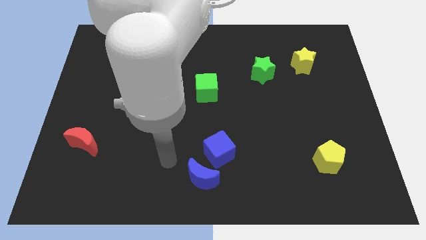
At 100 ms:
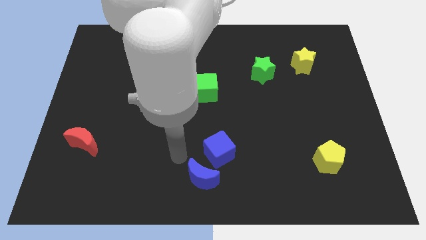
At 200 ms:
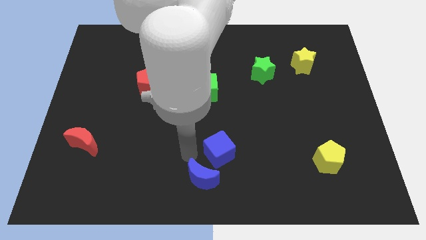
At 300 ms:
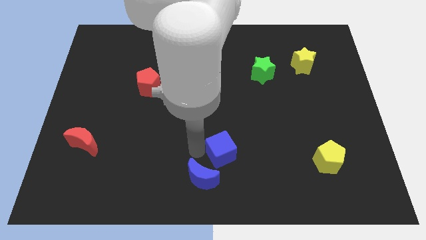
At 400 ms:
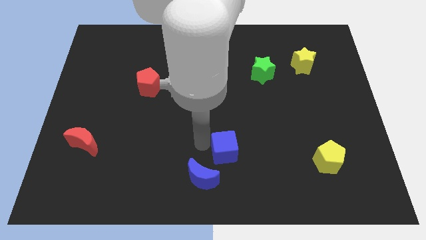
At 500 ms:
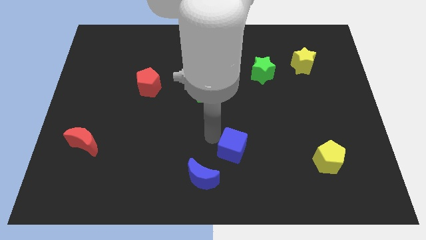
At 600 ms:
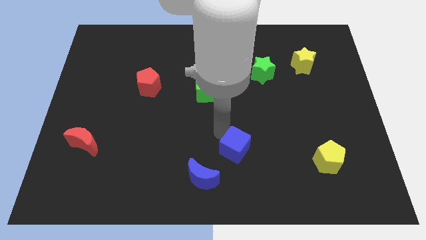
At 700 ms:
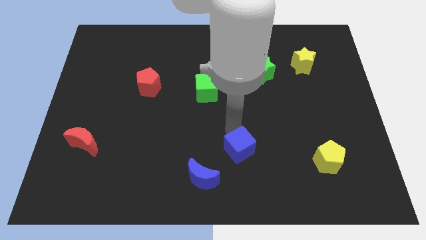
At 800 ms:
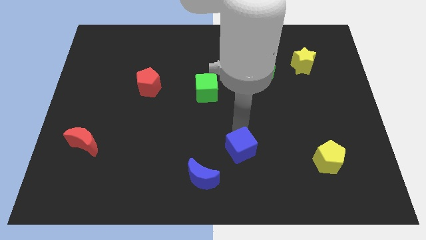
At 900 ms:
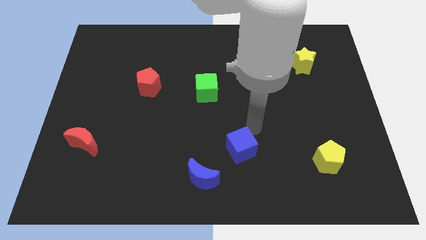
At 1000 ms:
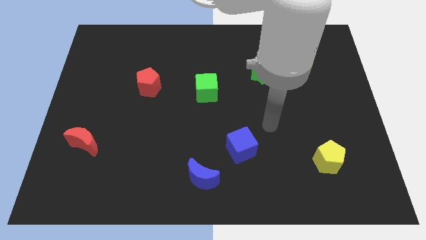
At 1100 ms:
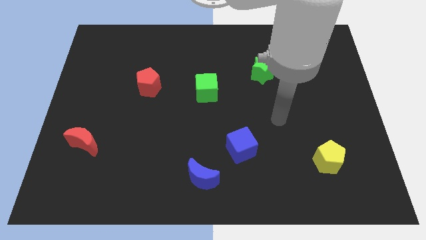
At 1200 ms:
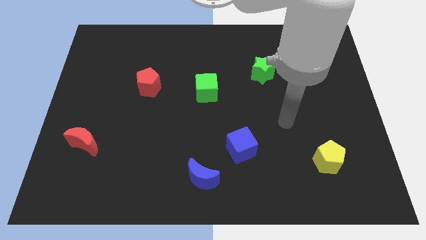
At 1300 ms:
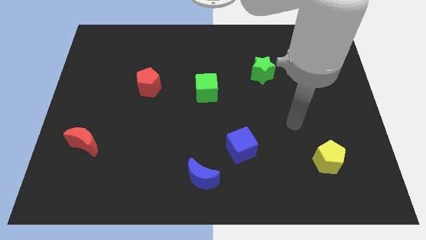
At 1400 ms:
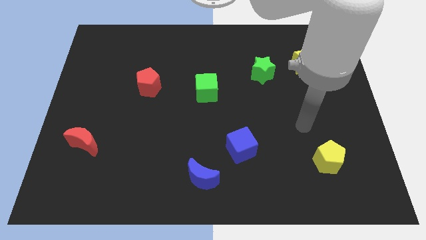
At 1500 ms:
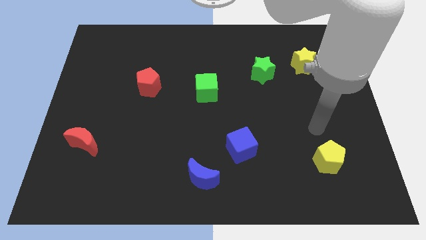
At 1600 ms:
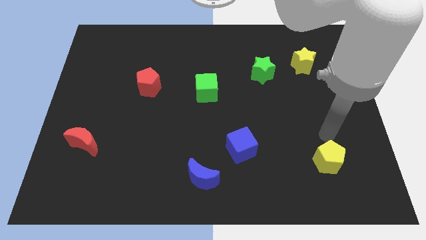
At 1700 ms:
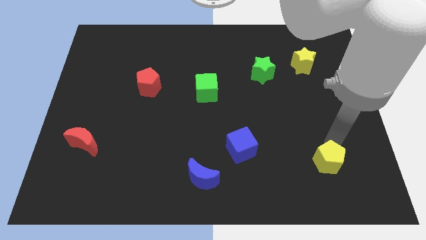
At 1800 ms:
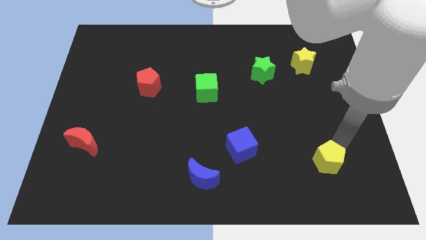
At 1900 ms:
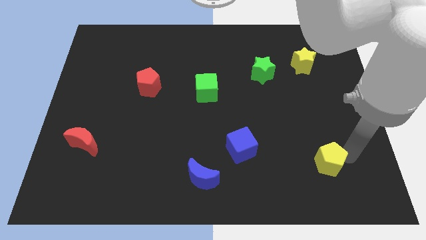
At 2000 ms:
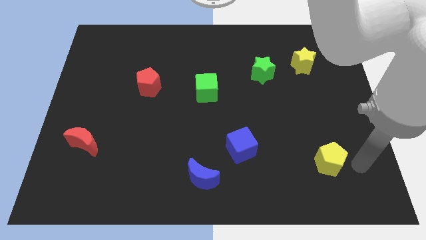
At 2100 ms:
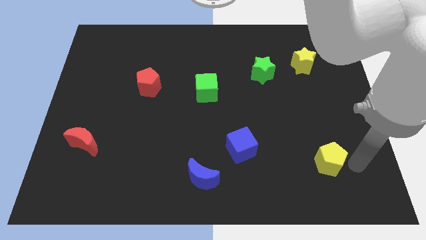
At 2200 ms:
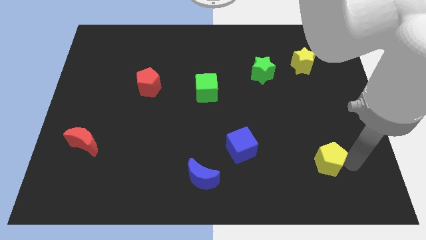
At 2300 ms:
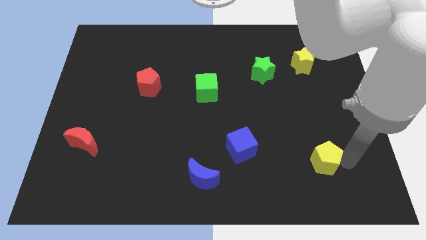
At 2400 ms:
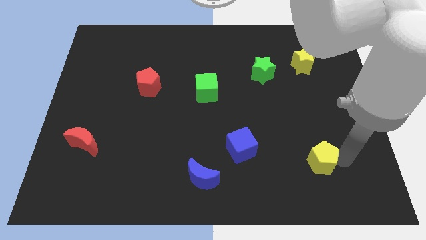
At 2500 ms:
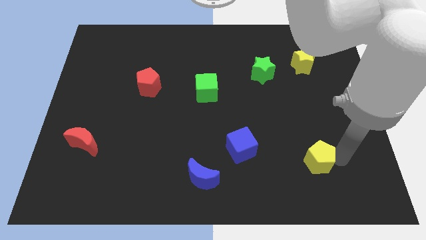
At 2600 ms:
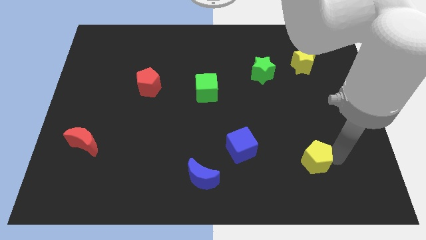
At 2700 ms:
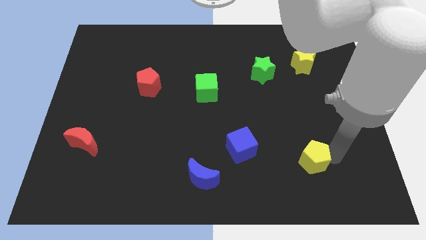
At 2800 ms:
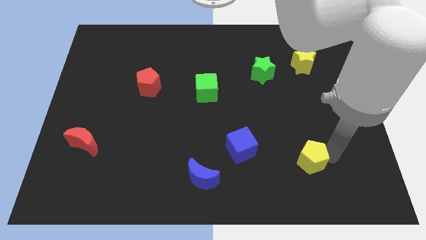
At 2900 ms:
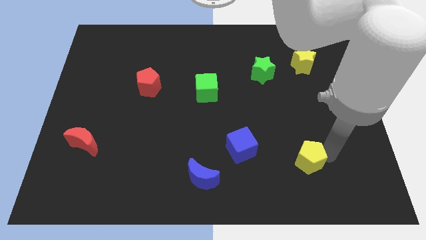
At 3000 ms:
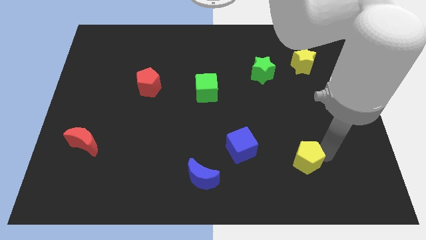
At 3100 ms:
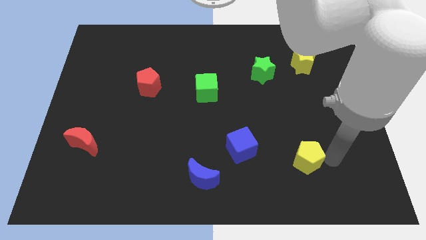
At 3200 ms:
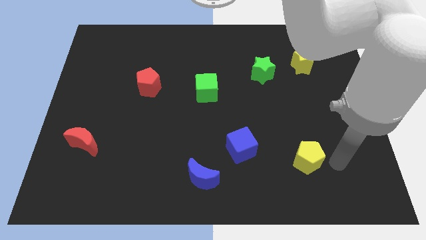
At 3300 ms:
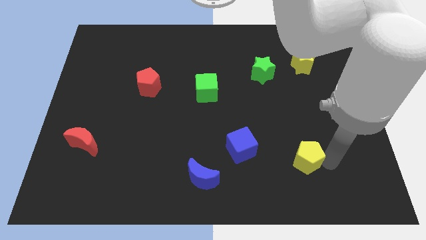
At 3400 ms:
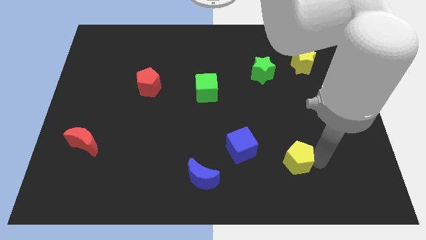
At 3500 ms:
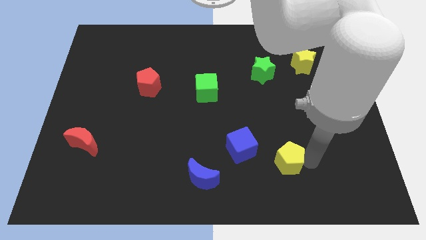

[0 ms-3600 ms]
slightly slide the yellow pentagon left

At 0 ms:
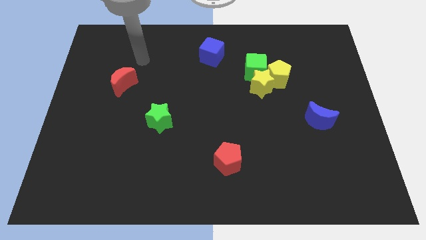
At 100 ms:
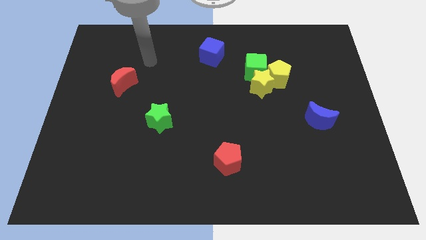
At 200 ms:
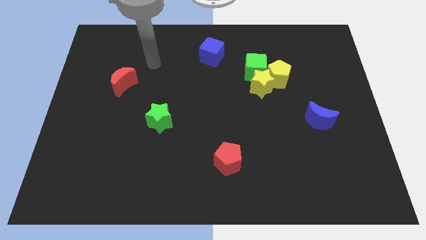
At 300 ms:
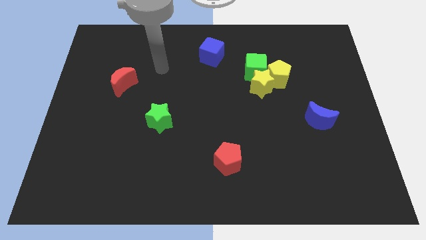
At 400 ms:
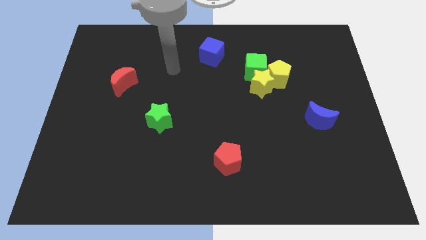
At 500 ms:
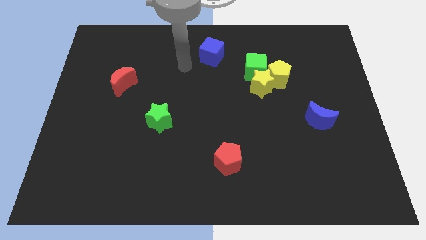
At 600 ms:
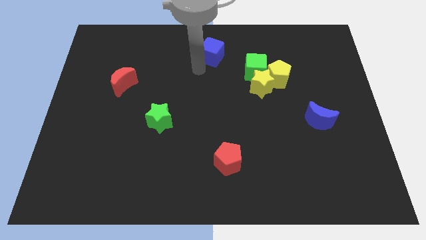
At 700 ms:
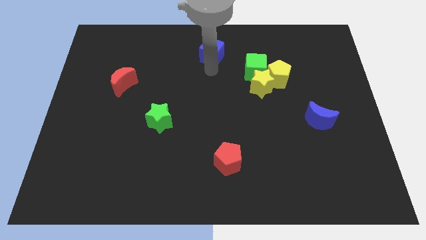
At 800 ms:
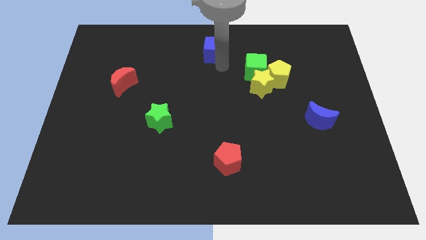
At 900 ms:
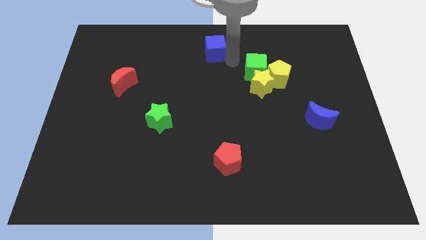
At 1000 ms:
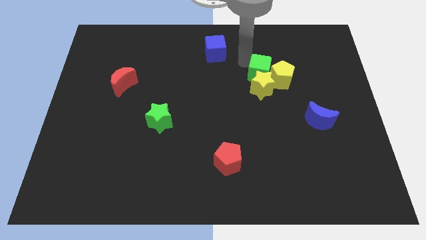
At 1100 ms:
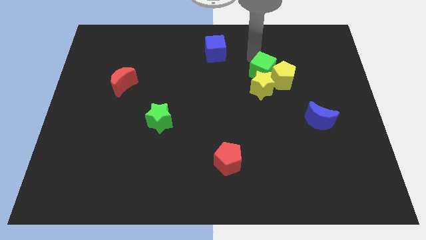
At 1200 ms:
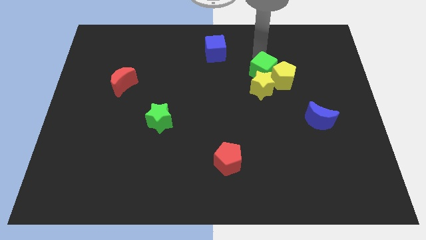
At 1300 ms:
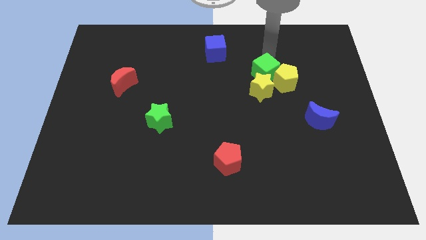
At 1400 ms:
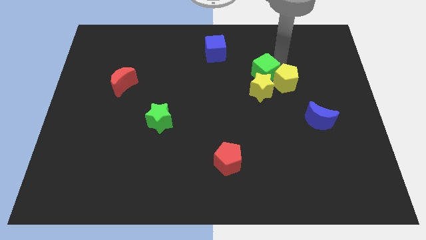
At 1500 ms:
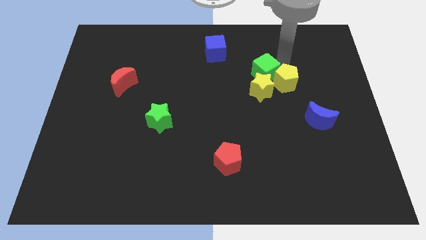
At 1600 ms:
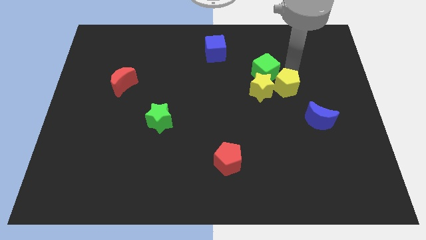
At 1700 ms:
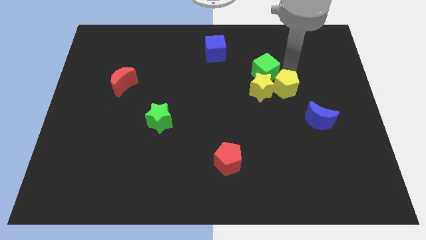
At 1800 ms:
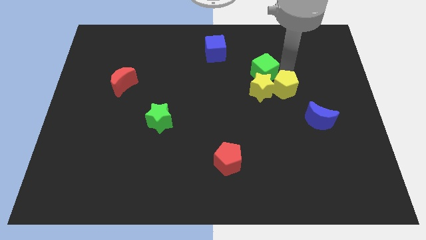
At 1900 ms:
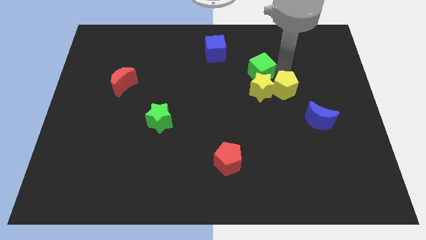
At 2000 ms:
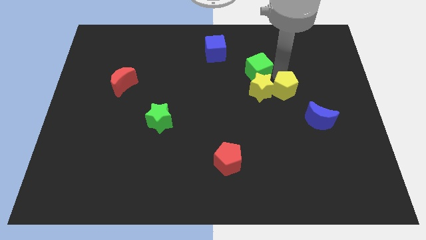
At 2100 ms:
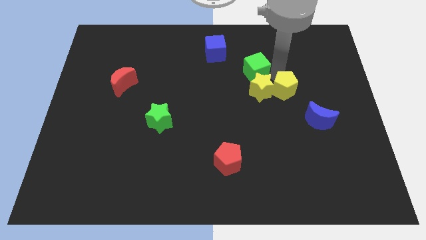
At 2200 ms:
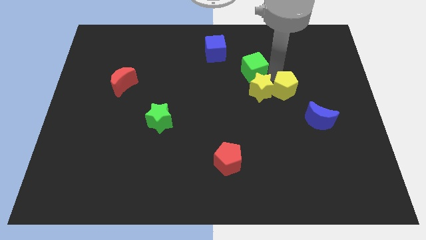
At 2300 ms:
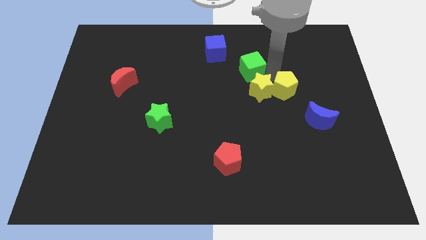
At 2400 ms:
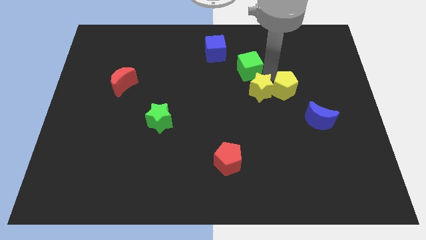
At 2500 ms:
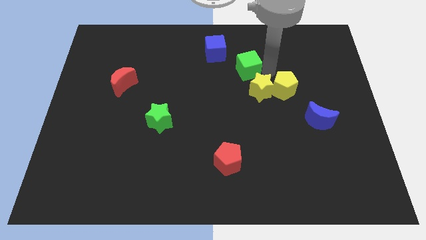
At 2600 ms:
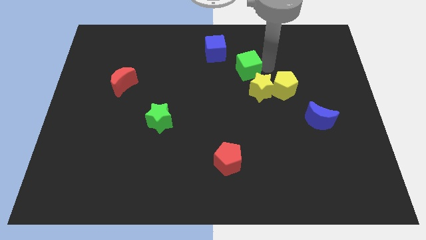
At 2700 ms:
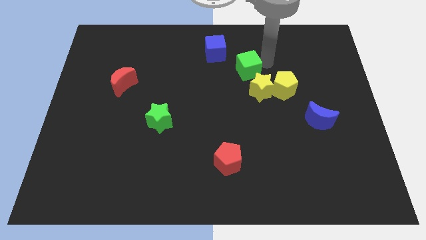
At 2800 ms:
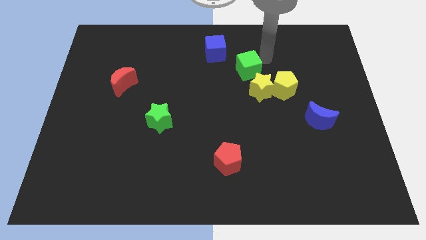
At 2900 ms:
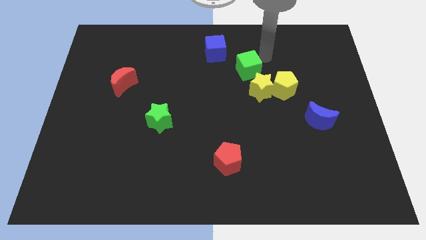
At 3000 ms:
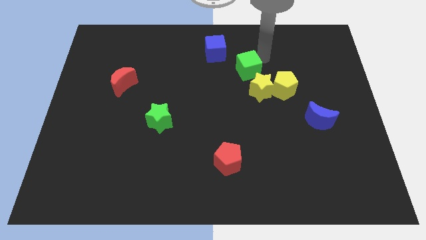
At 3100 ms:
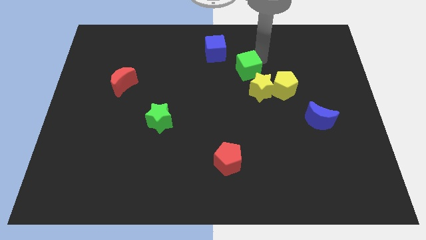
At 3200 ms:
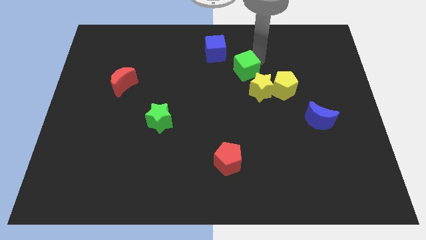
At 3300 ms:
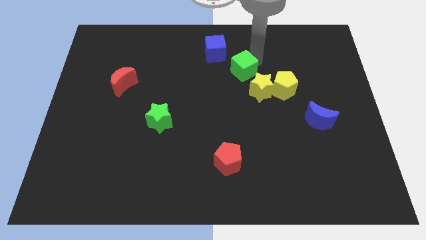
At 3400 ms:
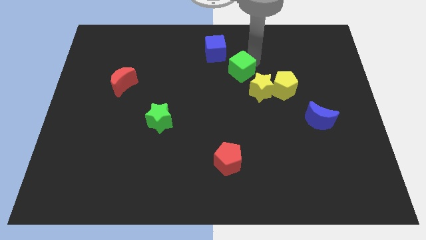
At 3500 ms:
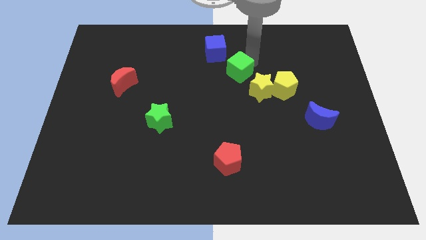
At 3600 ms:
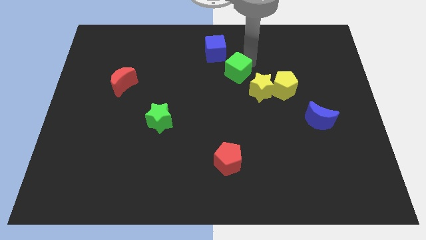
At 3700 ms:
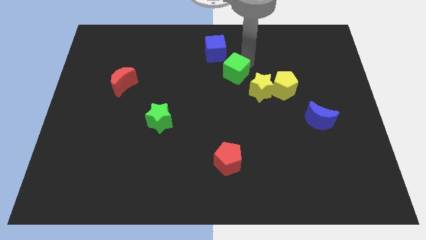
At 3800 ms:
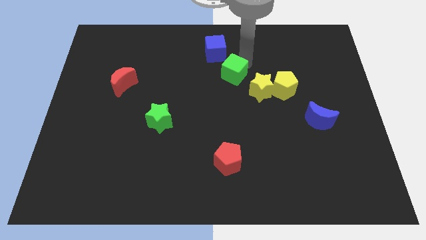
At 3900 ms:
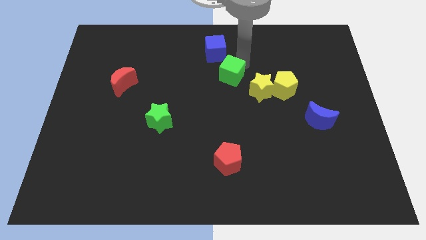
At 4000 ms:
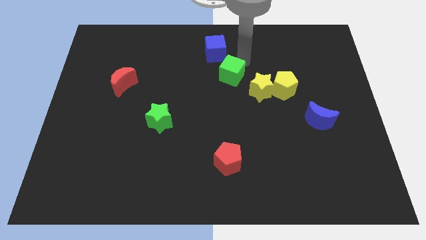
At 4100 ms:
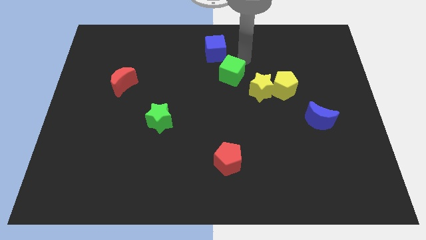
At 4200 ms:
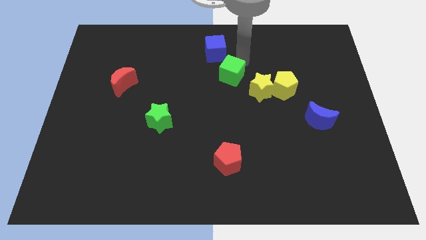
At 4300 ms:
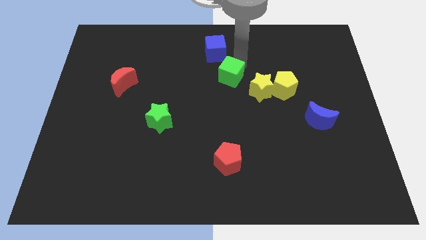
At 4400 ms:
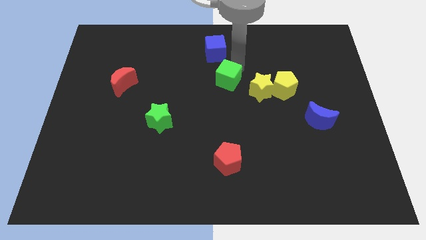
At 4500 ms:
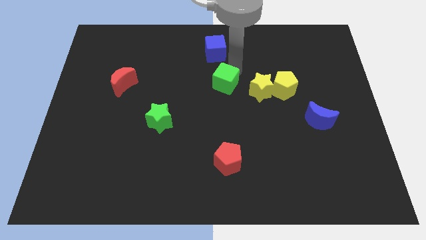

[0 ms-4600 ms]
move the green cube slightly down and then left
